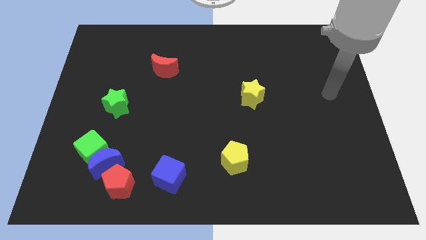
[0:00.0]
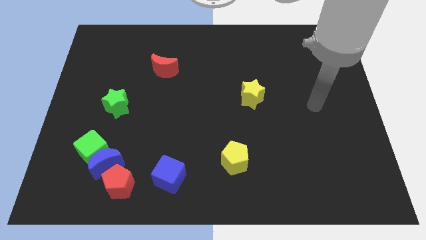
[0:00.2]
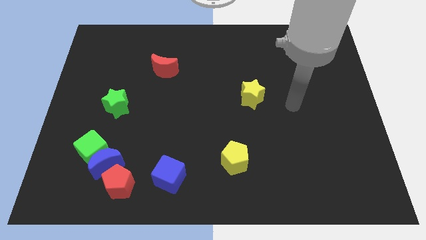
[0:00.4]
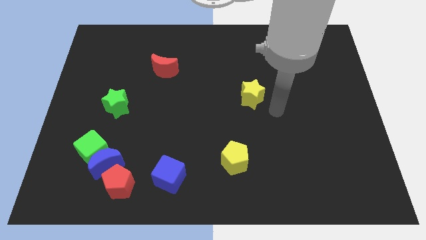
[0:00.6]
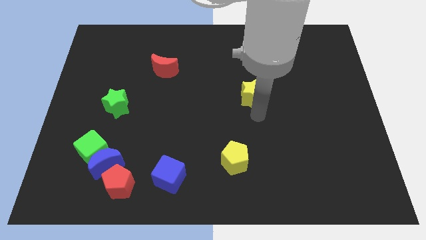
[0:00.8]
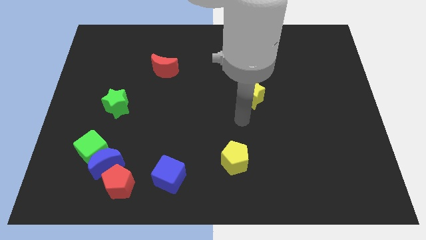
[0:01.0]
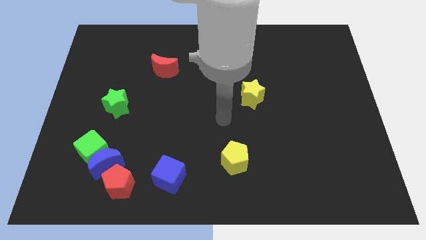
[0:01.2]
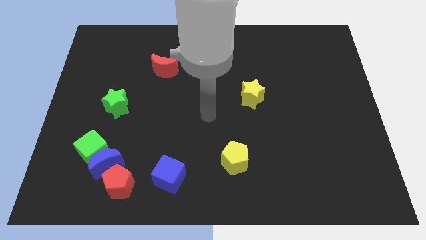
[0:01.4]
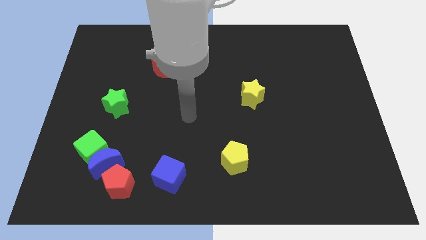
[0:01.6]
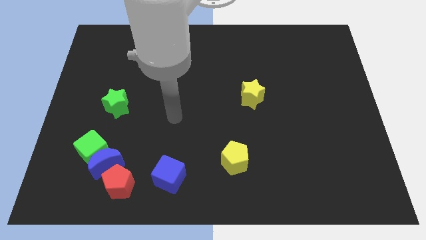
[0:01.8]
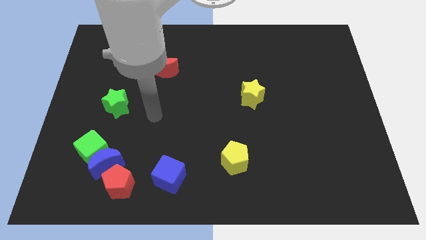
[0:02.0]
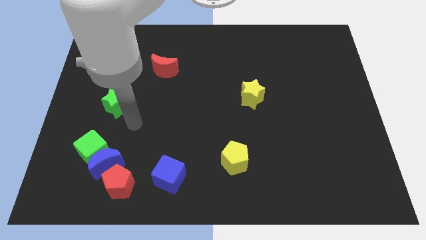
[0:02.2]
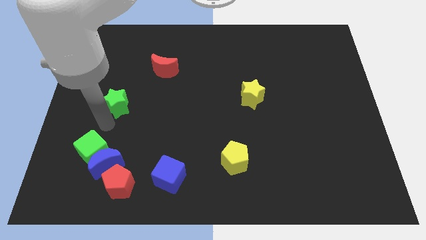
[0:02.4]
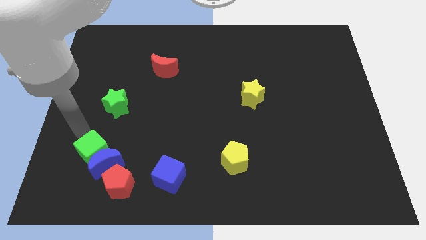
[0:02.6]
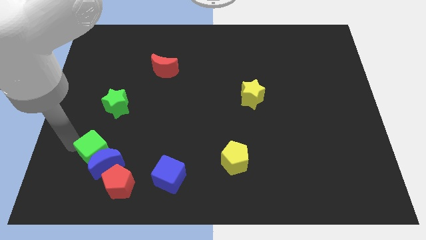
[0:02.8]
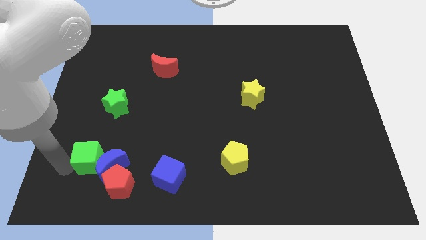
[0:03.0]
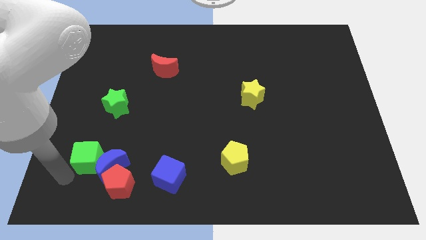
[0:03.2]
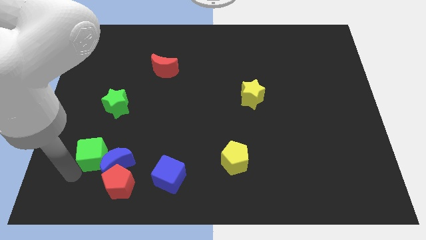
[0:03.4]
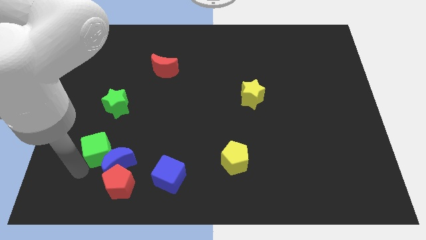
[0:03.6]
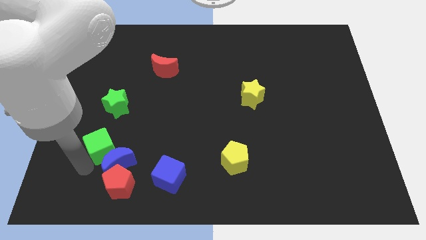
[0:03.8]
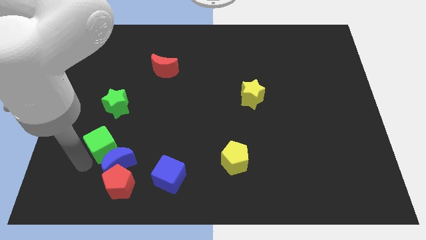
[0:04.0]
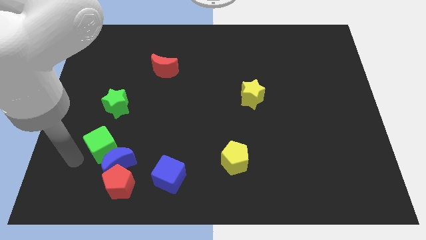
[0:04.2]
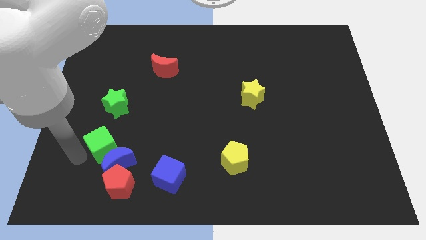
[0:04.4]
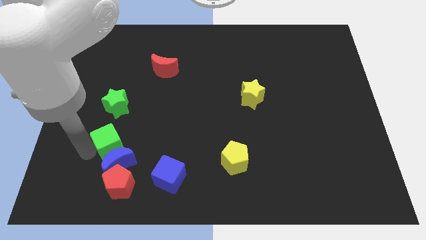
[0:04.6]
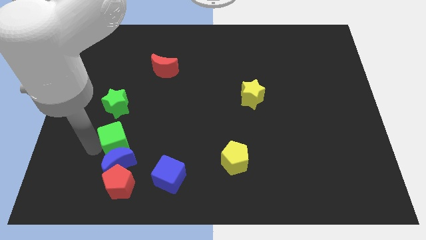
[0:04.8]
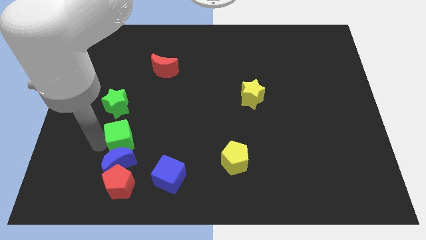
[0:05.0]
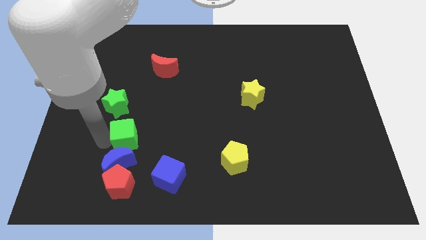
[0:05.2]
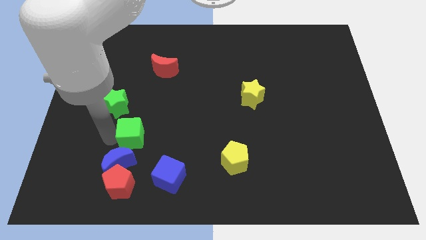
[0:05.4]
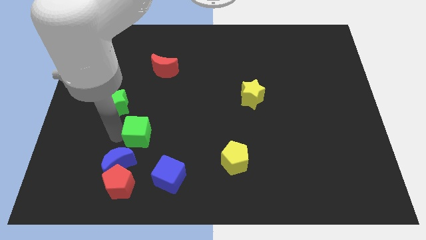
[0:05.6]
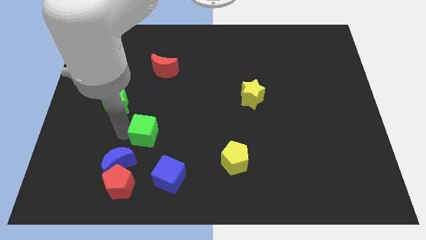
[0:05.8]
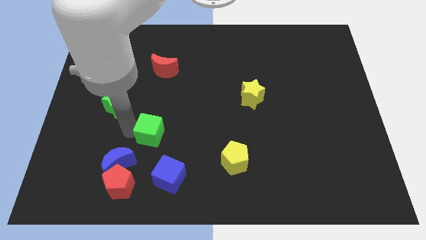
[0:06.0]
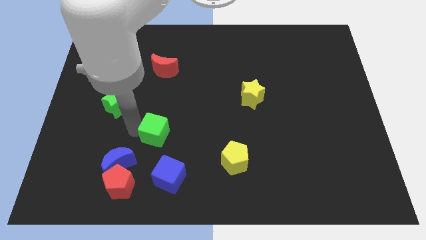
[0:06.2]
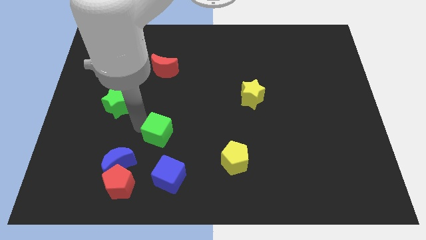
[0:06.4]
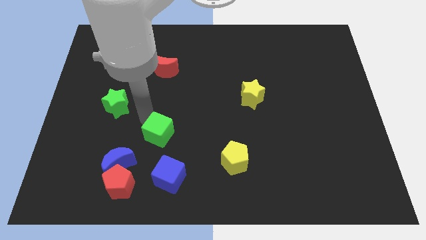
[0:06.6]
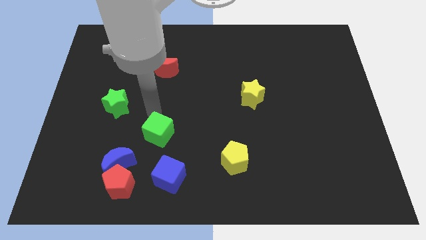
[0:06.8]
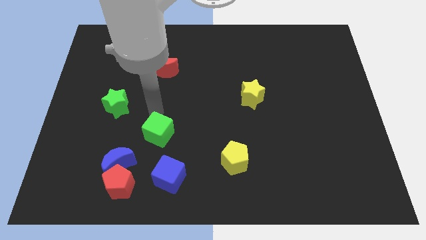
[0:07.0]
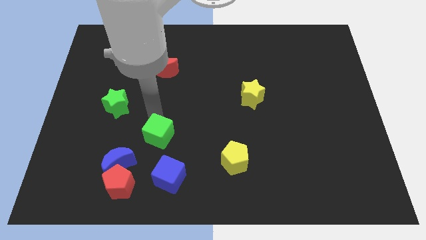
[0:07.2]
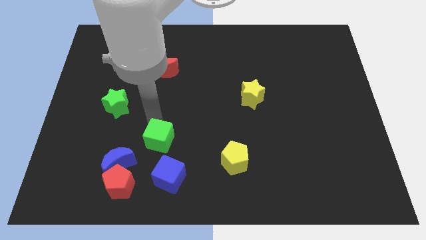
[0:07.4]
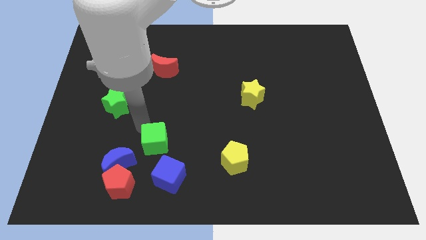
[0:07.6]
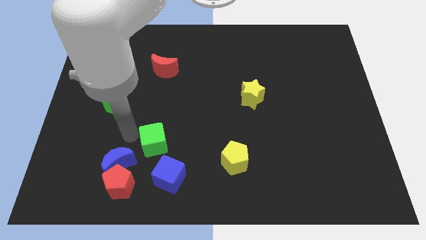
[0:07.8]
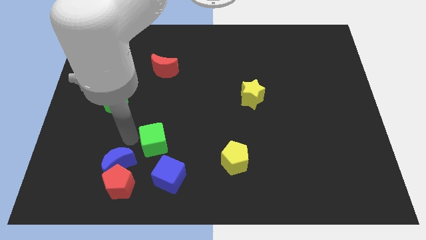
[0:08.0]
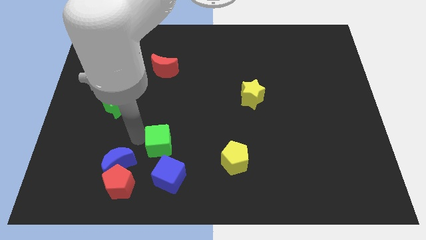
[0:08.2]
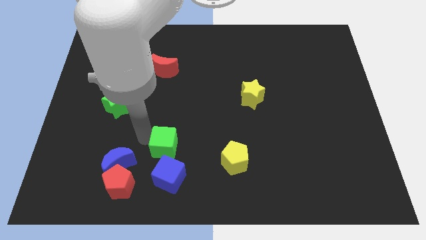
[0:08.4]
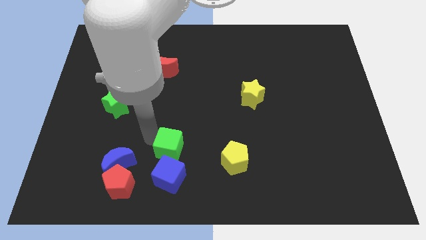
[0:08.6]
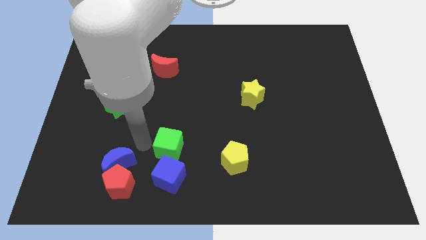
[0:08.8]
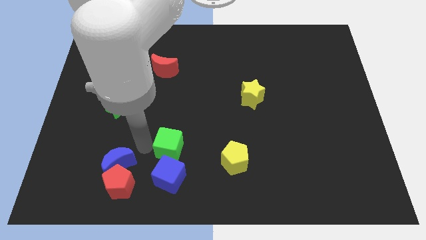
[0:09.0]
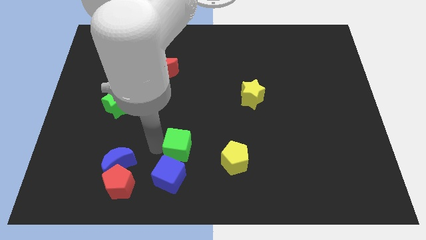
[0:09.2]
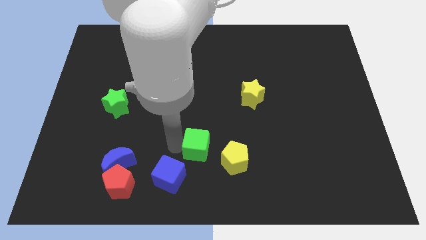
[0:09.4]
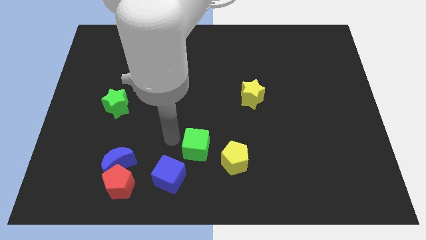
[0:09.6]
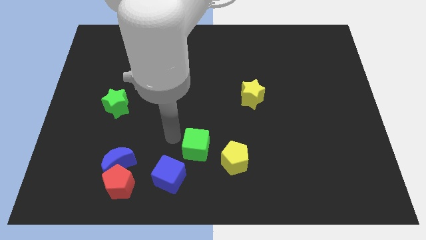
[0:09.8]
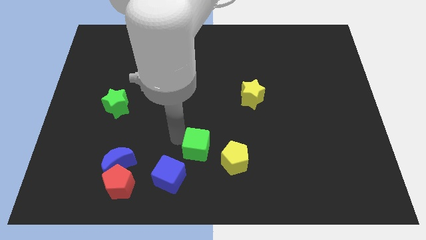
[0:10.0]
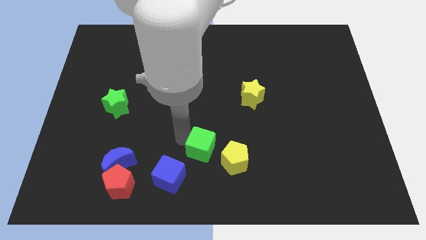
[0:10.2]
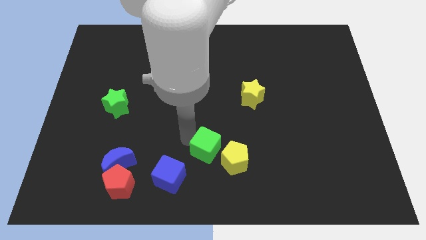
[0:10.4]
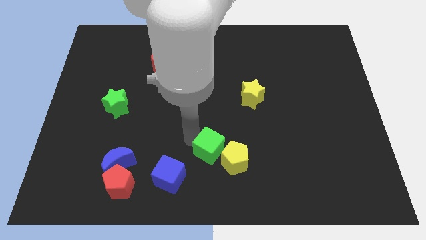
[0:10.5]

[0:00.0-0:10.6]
put the green cube towards the yellow pentagon

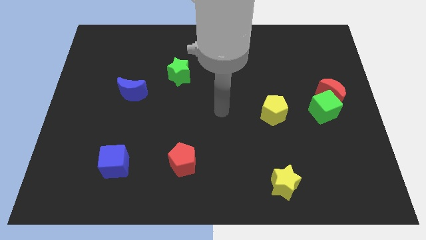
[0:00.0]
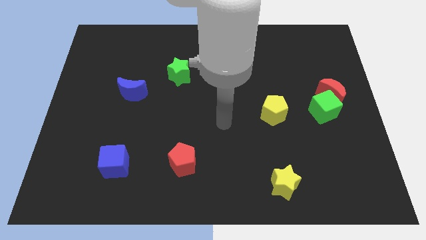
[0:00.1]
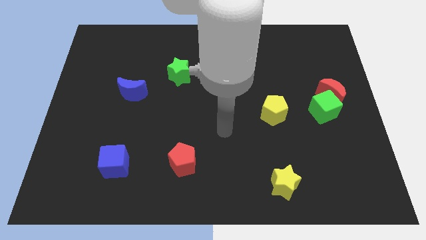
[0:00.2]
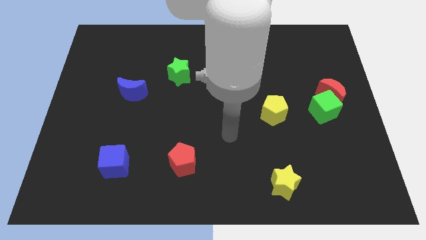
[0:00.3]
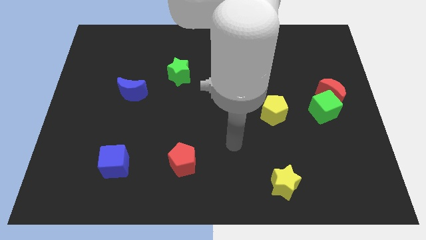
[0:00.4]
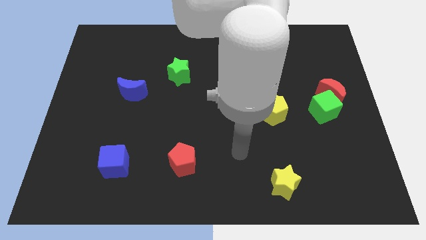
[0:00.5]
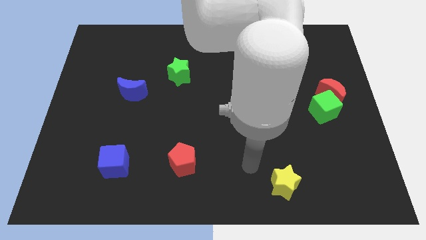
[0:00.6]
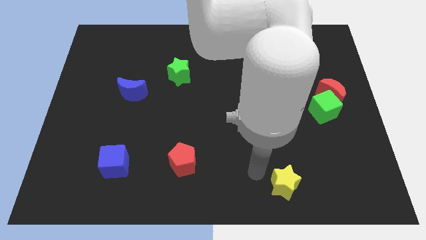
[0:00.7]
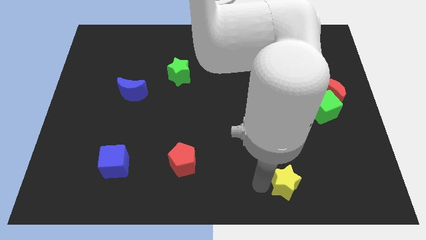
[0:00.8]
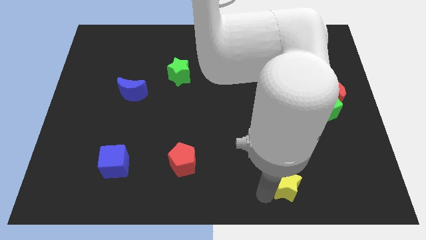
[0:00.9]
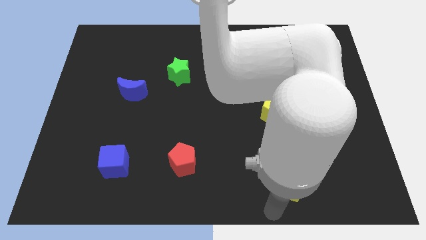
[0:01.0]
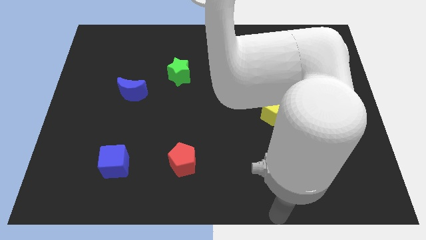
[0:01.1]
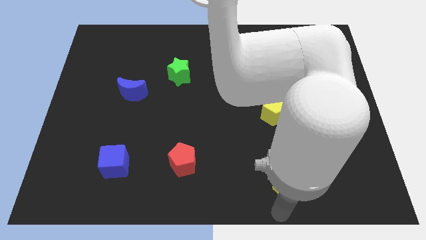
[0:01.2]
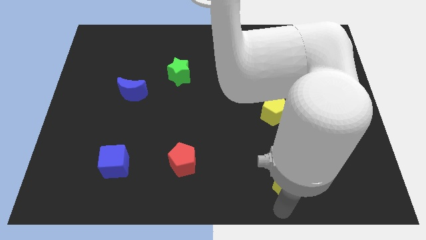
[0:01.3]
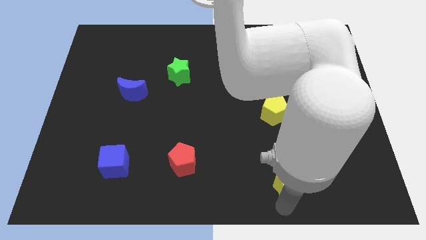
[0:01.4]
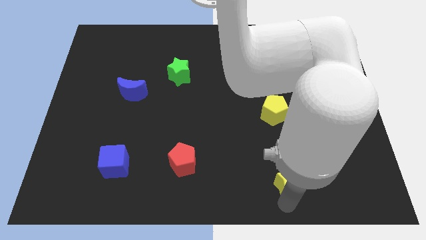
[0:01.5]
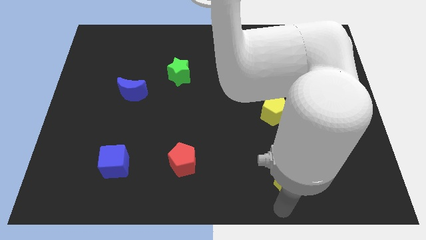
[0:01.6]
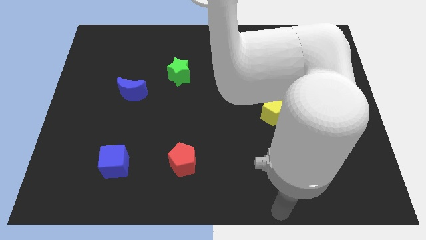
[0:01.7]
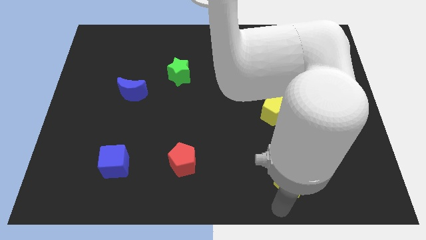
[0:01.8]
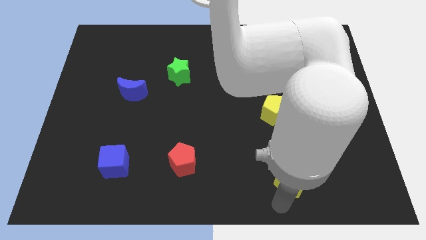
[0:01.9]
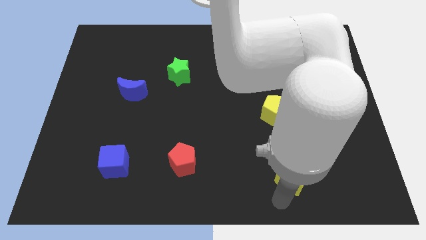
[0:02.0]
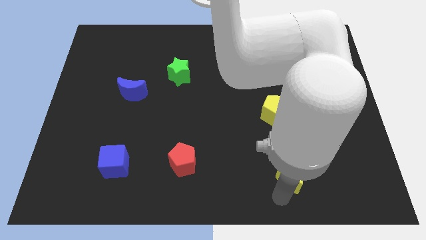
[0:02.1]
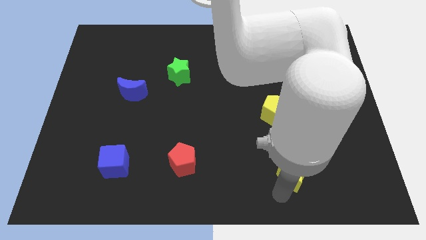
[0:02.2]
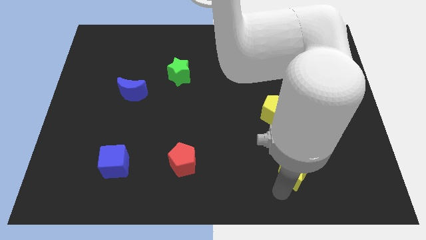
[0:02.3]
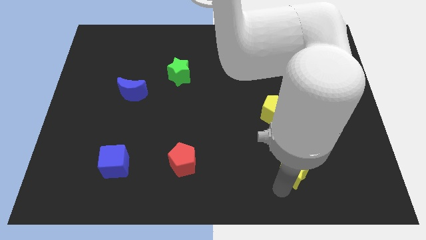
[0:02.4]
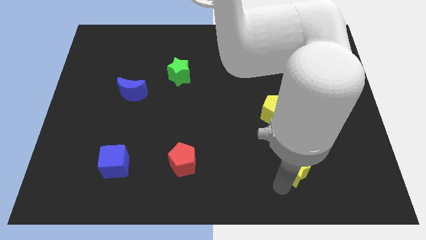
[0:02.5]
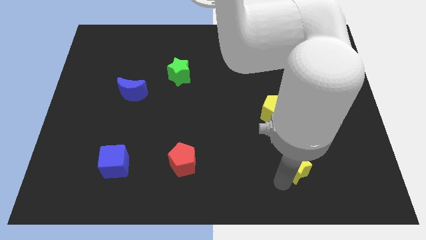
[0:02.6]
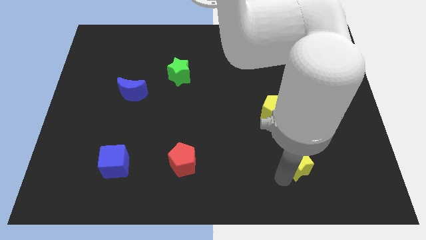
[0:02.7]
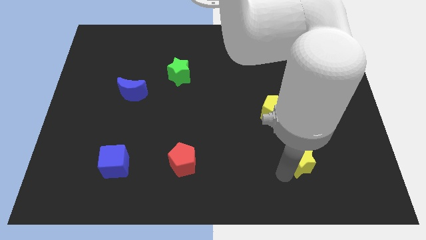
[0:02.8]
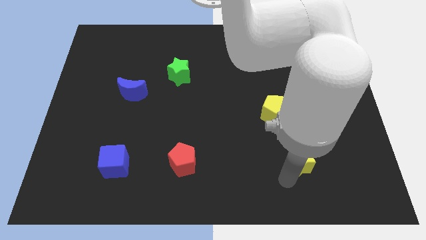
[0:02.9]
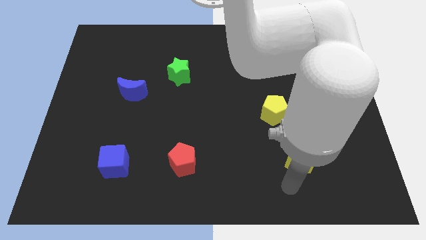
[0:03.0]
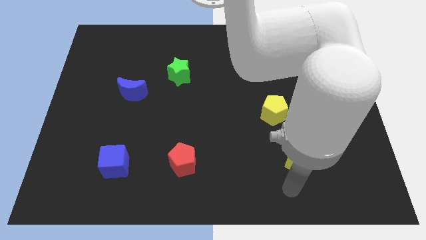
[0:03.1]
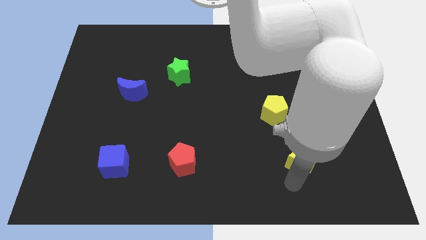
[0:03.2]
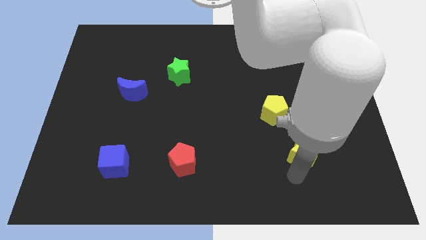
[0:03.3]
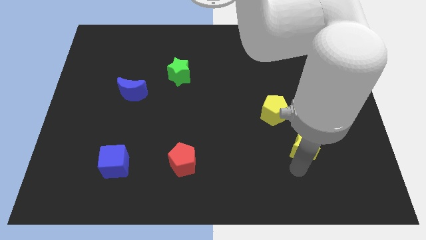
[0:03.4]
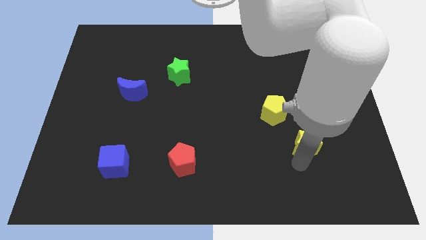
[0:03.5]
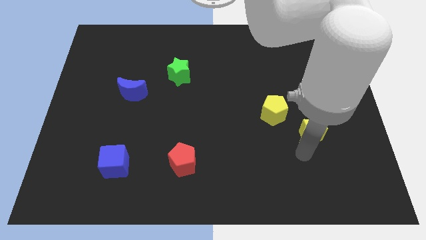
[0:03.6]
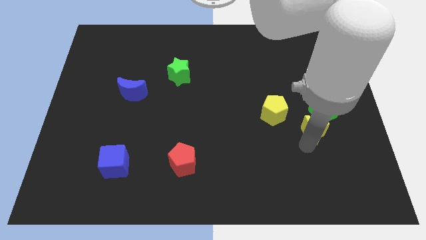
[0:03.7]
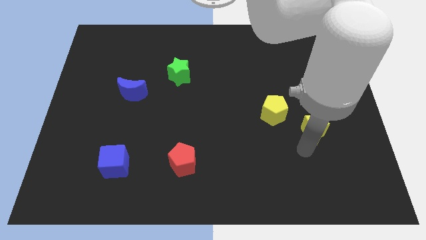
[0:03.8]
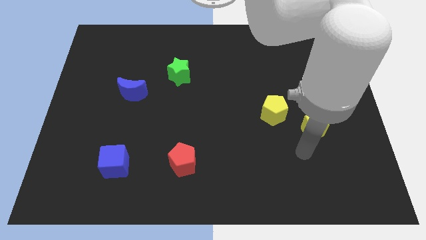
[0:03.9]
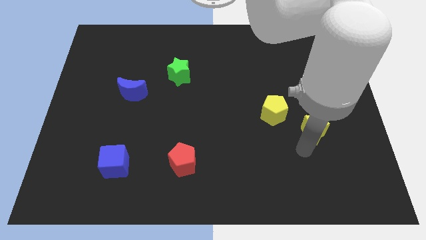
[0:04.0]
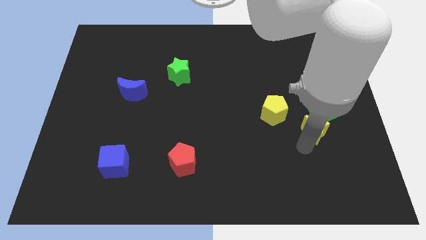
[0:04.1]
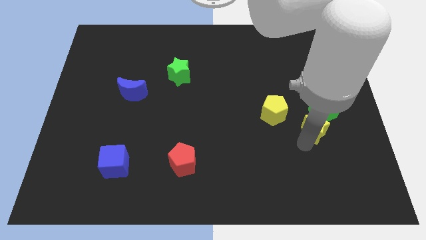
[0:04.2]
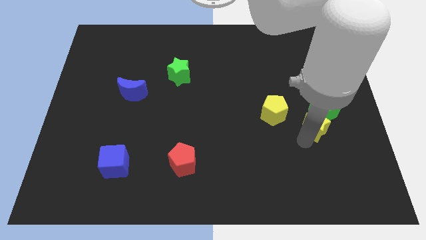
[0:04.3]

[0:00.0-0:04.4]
slide the yellow star towards the green cube
